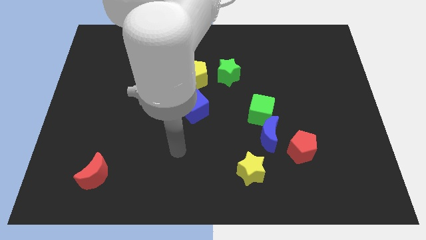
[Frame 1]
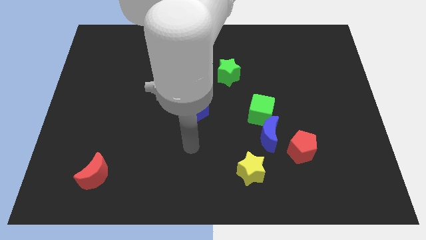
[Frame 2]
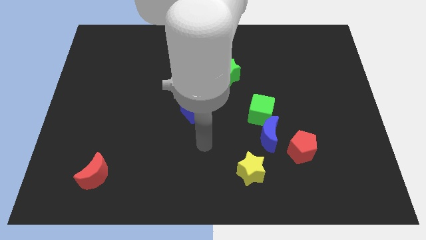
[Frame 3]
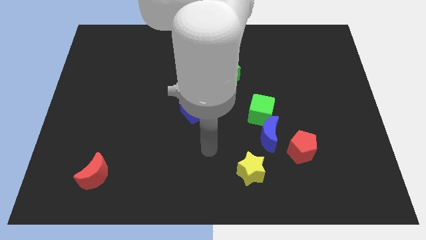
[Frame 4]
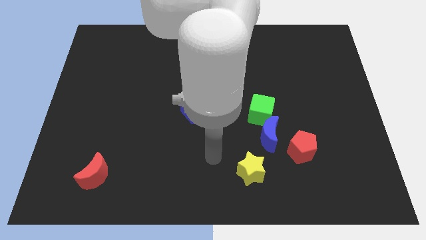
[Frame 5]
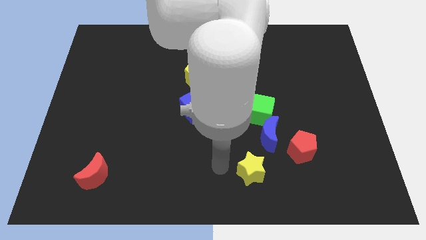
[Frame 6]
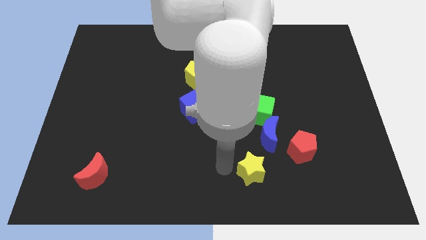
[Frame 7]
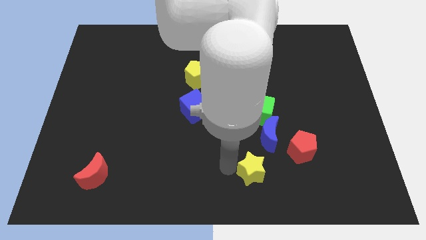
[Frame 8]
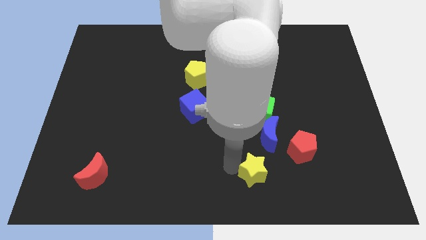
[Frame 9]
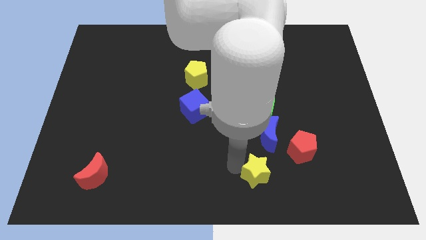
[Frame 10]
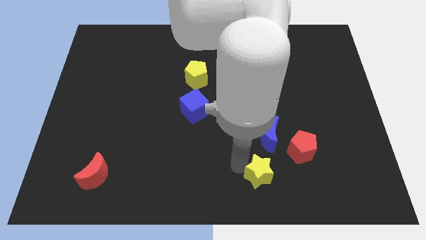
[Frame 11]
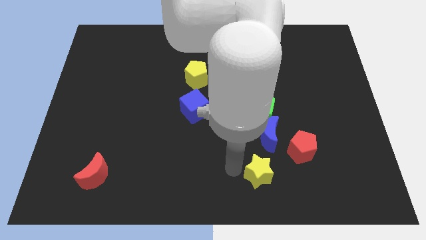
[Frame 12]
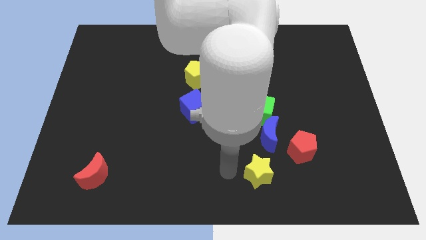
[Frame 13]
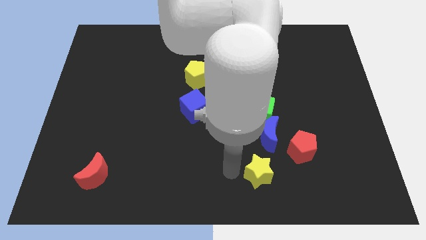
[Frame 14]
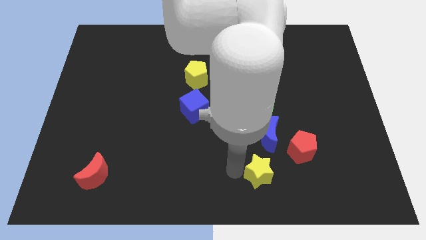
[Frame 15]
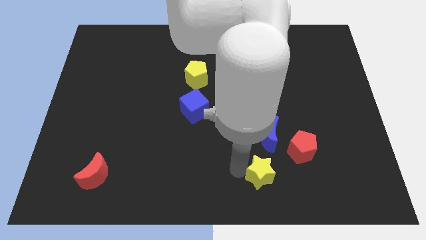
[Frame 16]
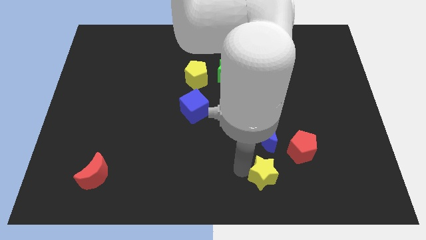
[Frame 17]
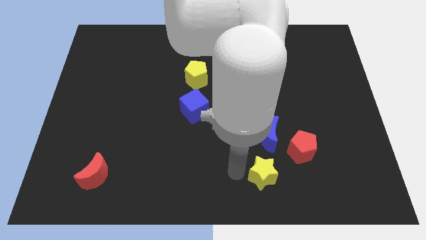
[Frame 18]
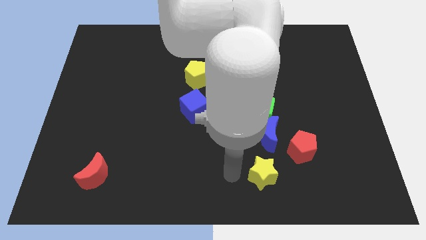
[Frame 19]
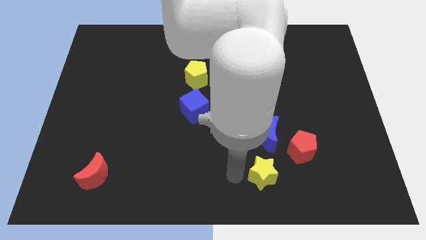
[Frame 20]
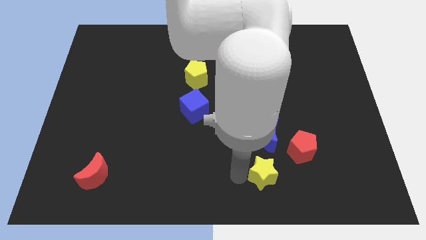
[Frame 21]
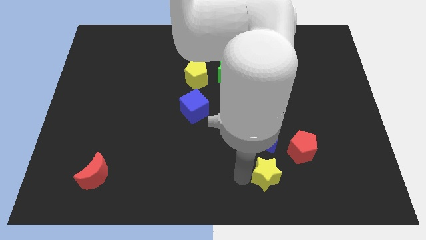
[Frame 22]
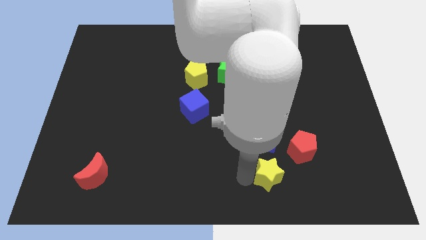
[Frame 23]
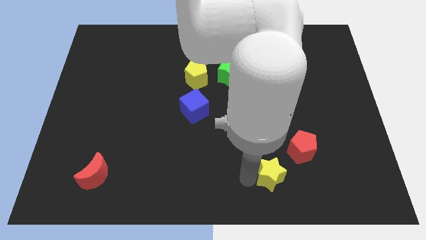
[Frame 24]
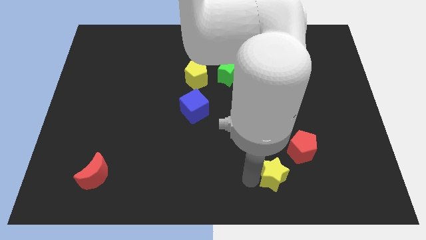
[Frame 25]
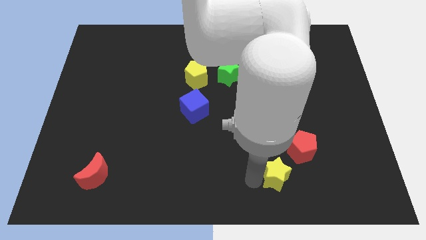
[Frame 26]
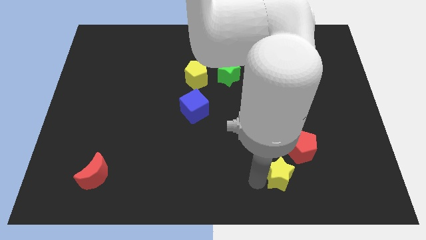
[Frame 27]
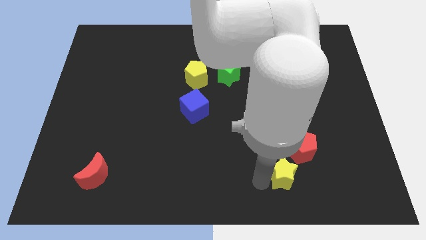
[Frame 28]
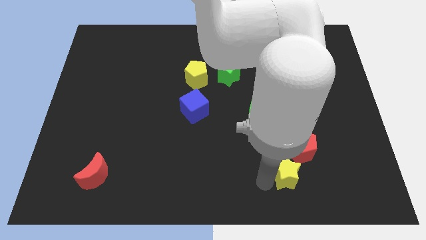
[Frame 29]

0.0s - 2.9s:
slightly slide the yellow star right

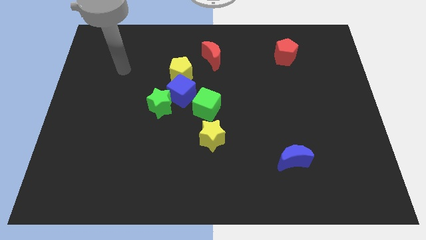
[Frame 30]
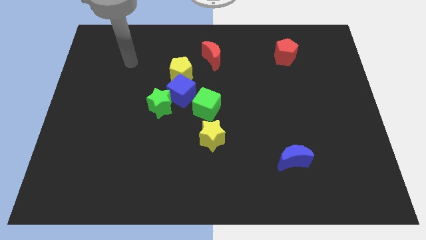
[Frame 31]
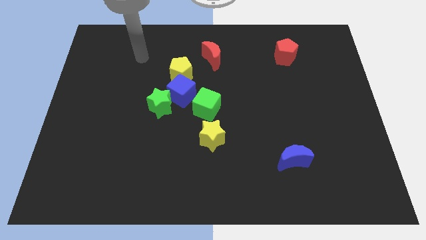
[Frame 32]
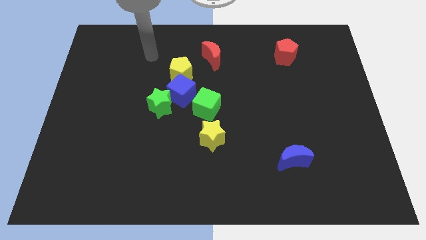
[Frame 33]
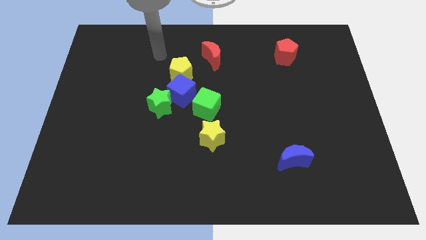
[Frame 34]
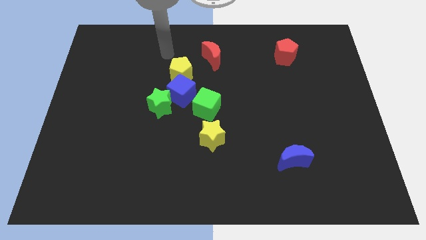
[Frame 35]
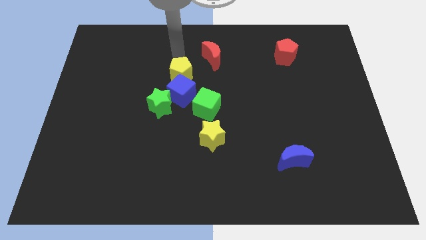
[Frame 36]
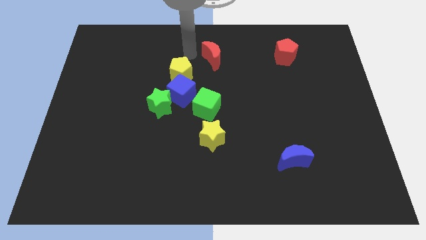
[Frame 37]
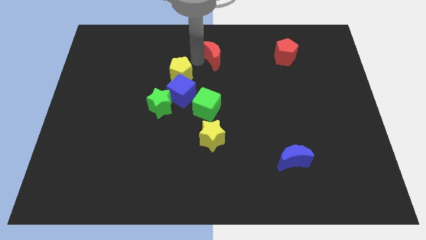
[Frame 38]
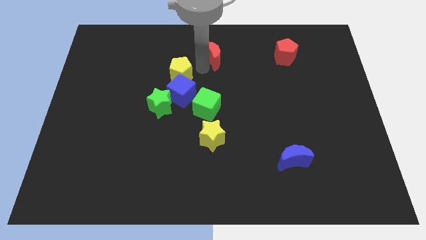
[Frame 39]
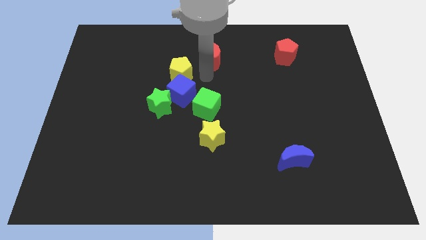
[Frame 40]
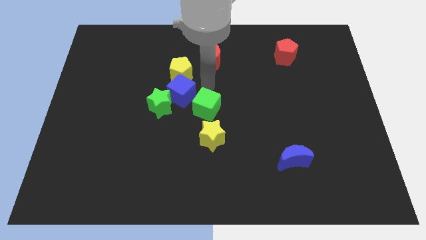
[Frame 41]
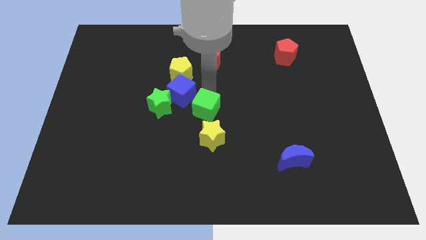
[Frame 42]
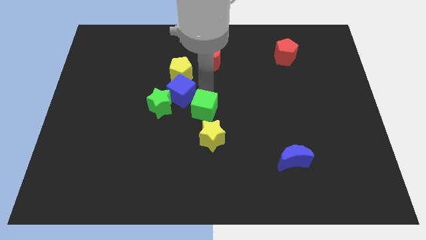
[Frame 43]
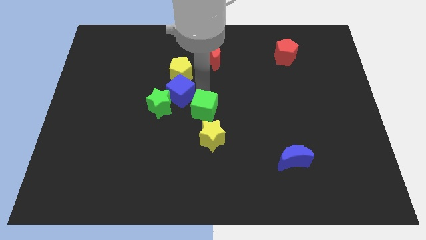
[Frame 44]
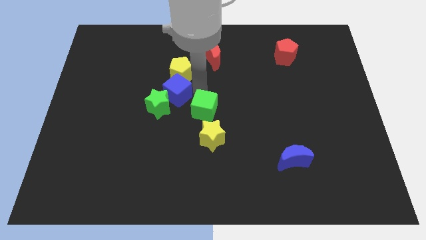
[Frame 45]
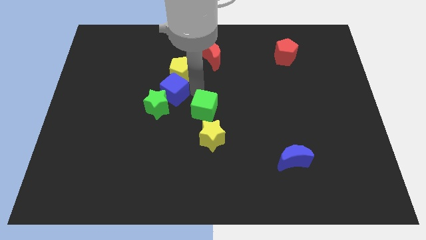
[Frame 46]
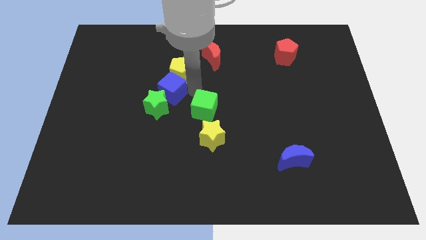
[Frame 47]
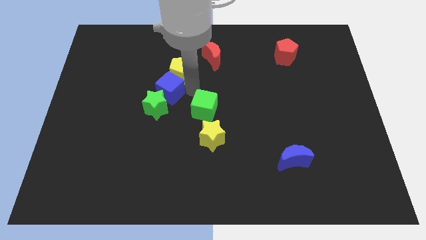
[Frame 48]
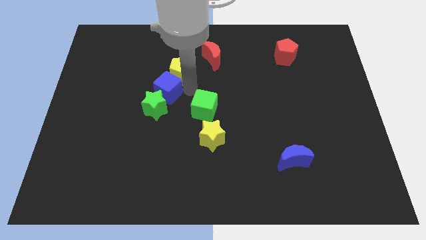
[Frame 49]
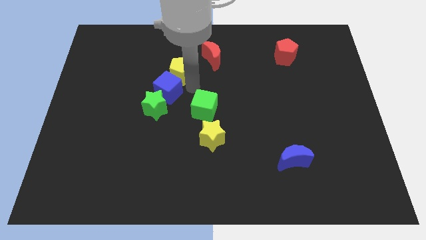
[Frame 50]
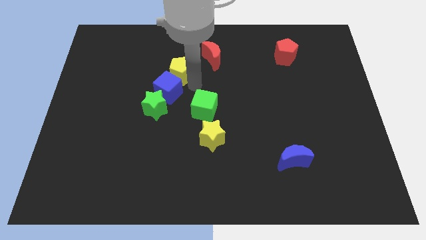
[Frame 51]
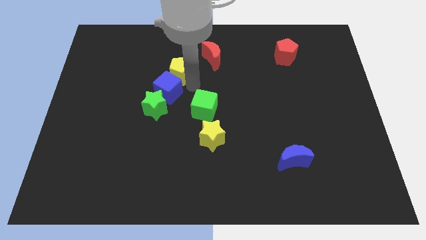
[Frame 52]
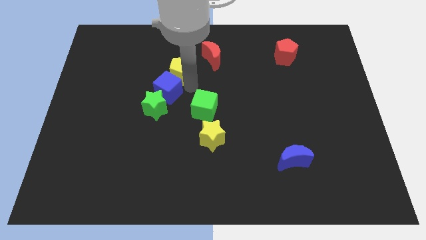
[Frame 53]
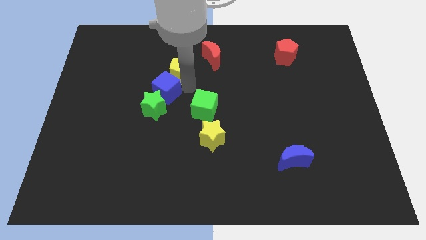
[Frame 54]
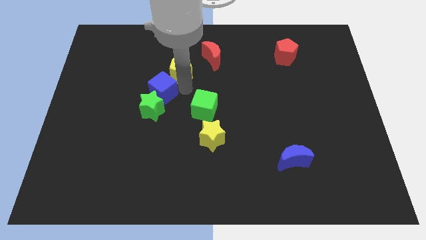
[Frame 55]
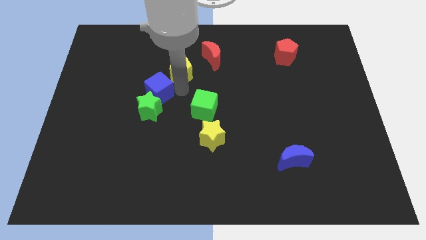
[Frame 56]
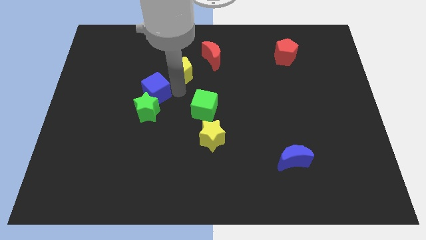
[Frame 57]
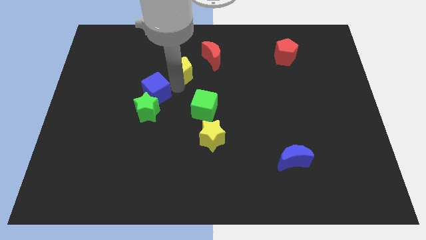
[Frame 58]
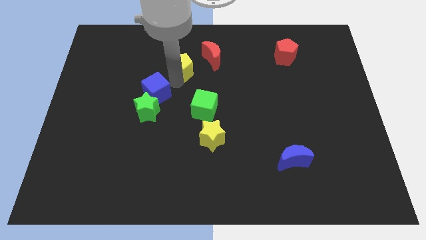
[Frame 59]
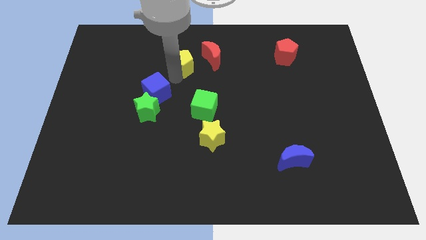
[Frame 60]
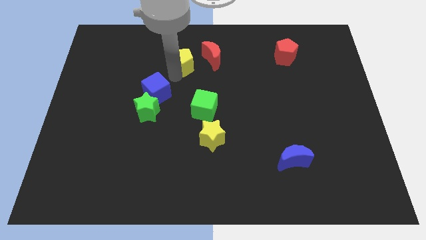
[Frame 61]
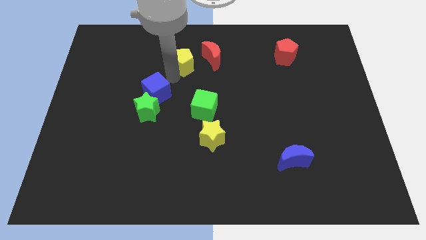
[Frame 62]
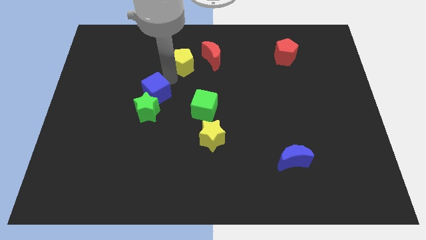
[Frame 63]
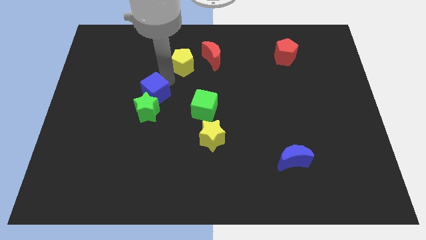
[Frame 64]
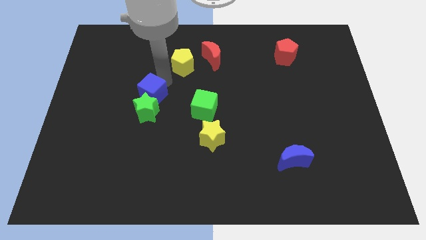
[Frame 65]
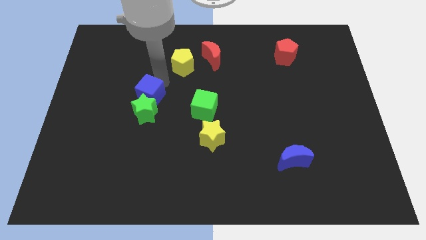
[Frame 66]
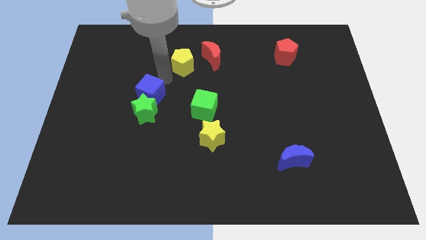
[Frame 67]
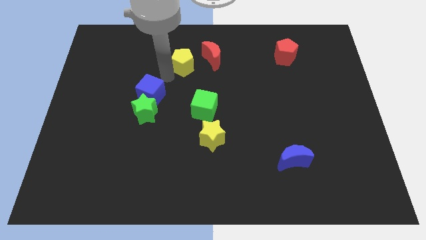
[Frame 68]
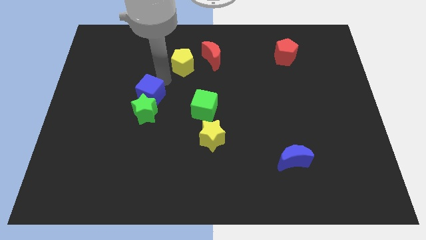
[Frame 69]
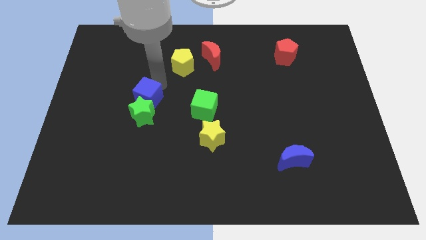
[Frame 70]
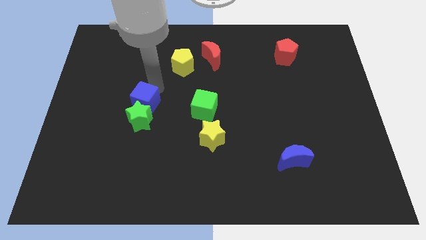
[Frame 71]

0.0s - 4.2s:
slightly move the blue cube down and left diagonally

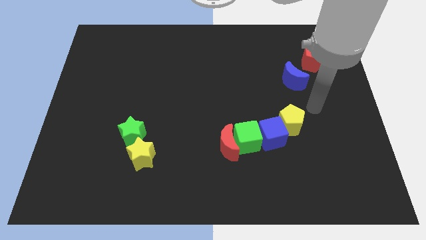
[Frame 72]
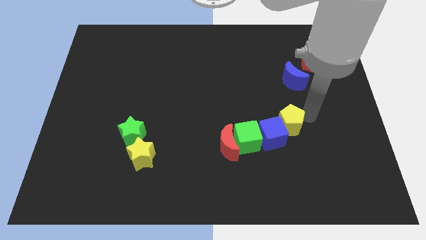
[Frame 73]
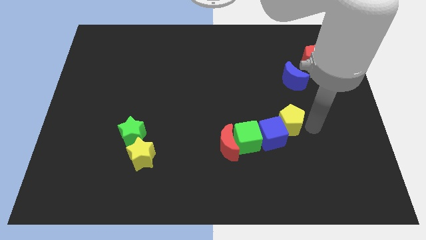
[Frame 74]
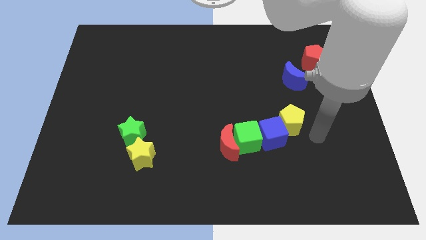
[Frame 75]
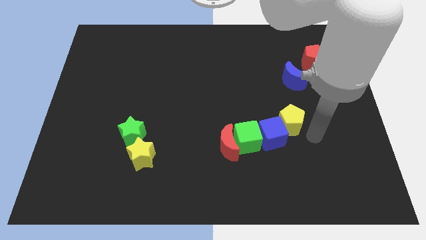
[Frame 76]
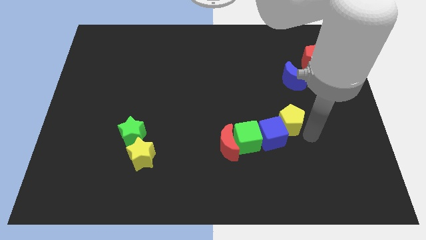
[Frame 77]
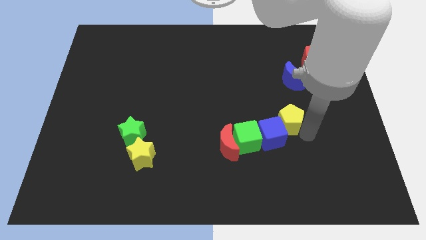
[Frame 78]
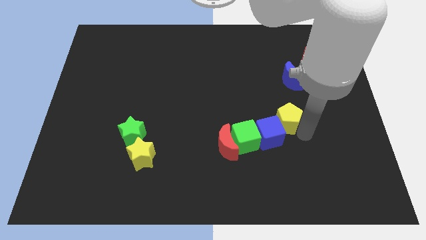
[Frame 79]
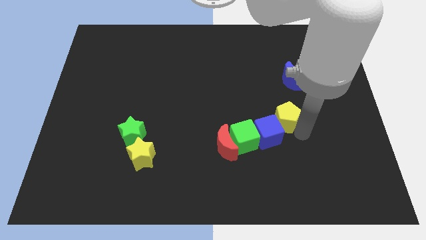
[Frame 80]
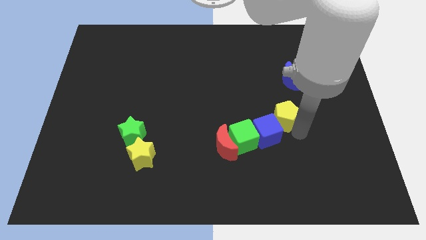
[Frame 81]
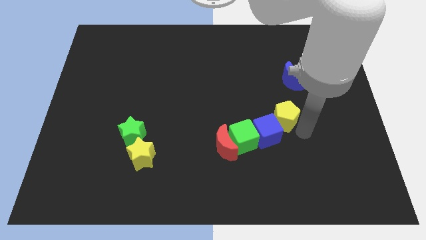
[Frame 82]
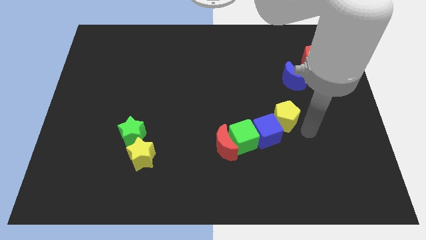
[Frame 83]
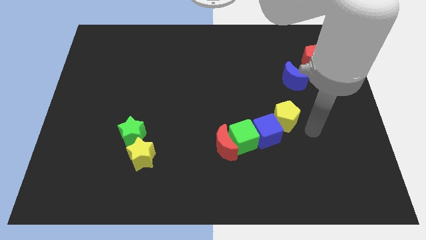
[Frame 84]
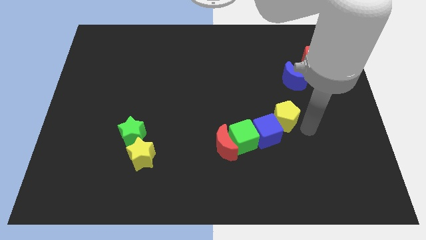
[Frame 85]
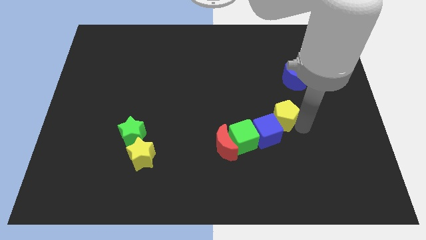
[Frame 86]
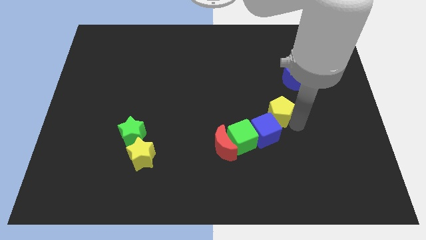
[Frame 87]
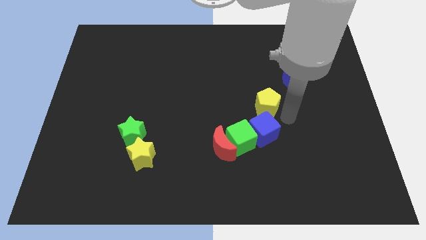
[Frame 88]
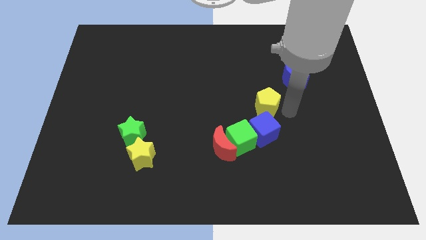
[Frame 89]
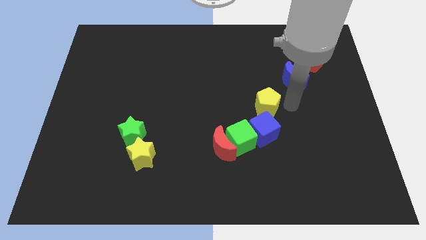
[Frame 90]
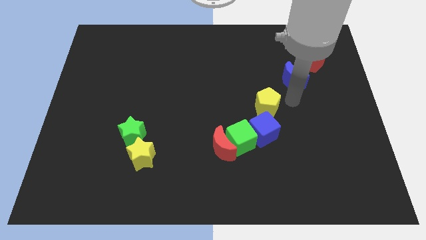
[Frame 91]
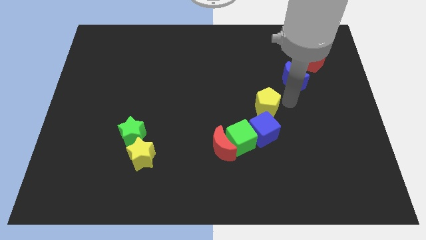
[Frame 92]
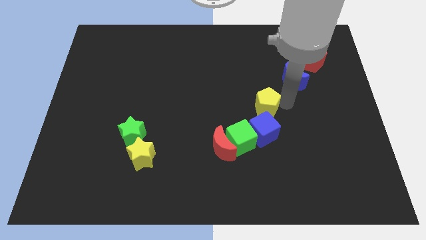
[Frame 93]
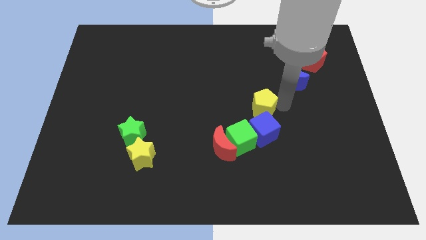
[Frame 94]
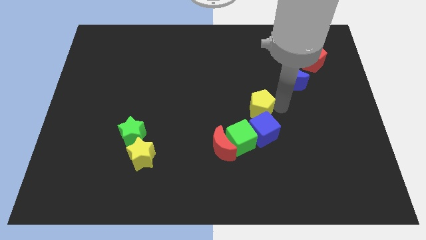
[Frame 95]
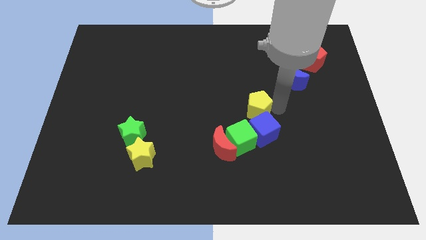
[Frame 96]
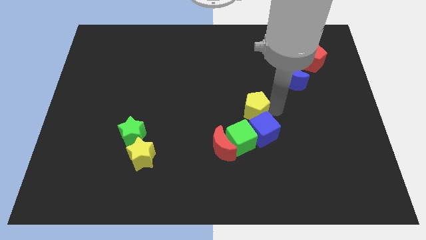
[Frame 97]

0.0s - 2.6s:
slightly move the yellow pentagon to the left
